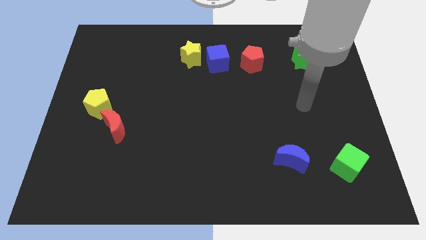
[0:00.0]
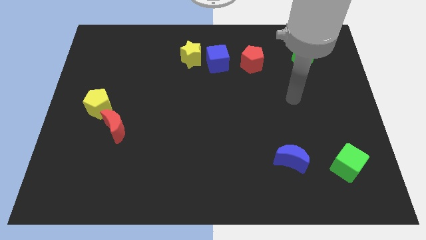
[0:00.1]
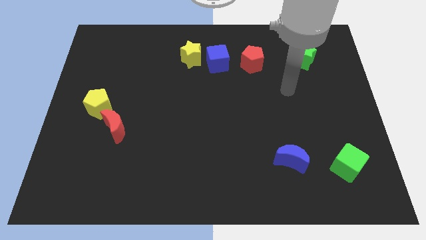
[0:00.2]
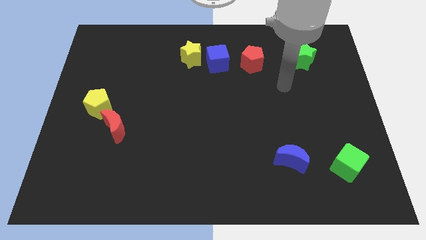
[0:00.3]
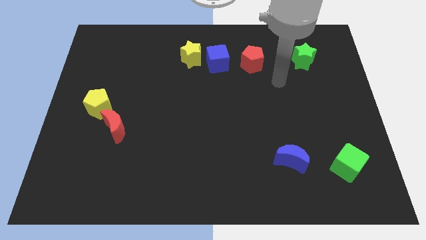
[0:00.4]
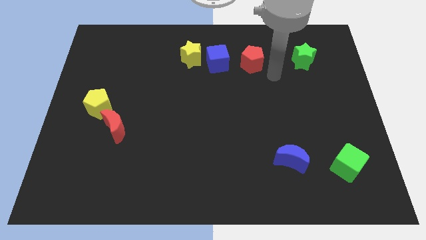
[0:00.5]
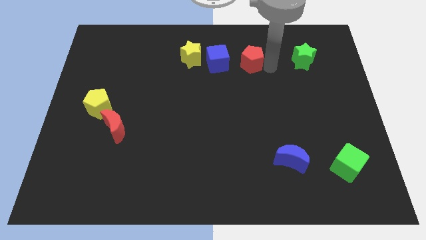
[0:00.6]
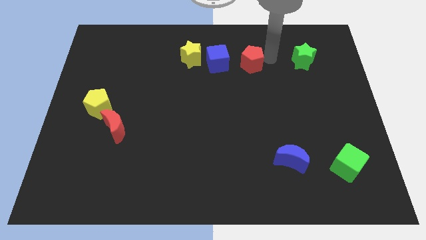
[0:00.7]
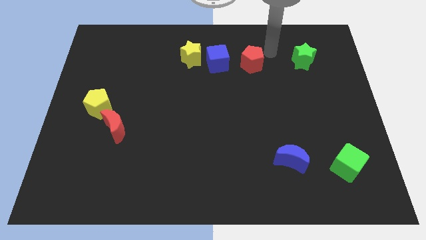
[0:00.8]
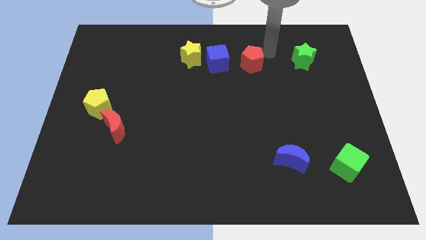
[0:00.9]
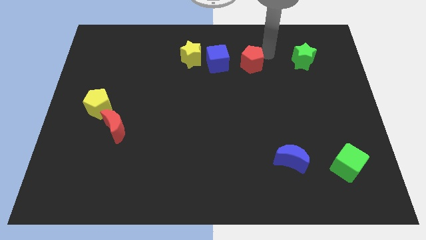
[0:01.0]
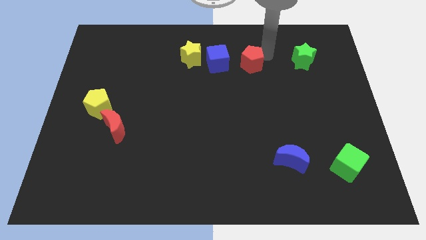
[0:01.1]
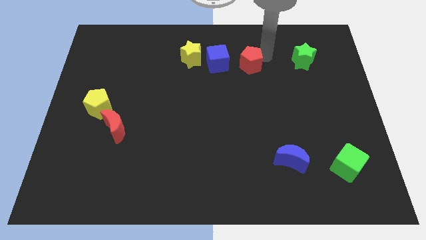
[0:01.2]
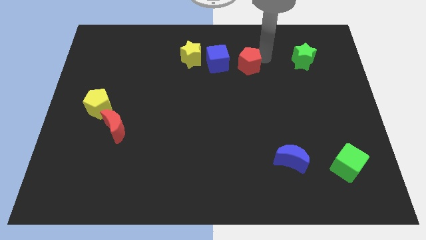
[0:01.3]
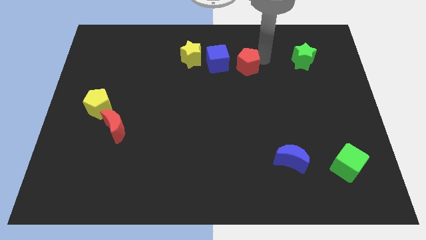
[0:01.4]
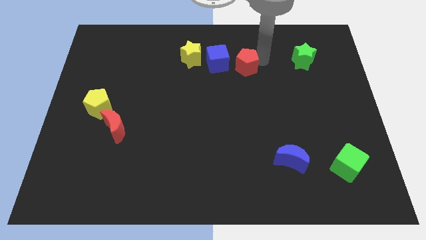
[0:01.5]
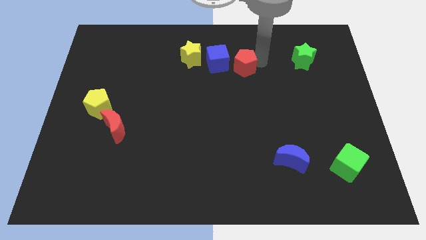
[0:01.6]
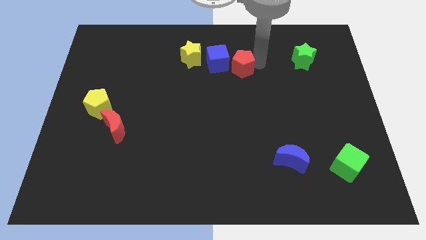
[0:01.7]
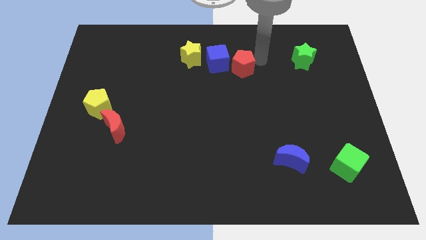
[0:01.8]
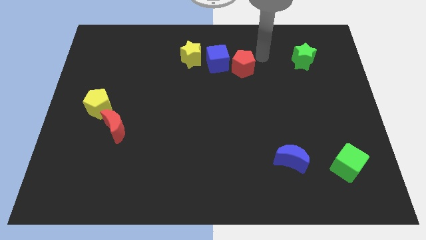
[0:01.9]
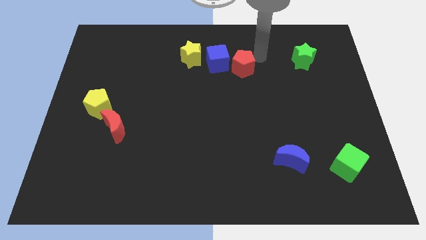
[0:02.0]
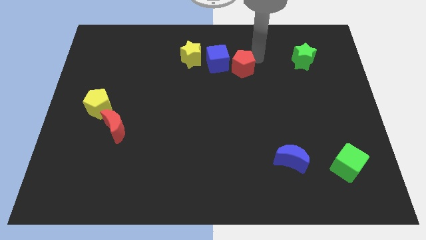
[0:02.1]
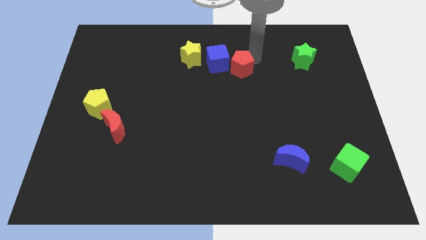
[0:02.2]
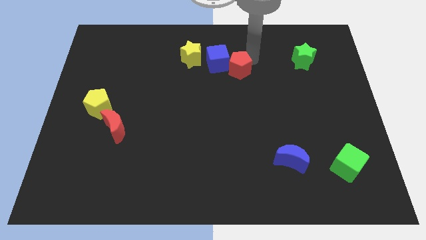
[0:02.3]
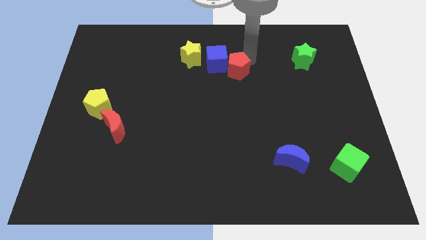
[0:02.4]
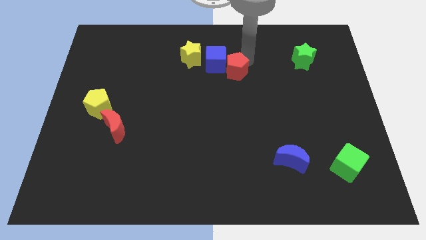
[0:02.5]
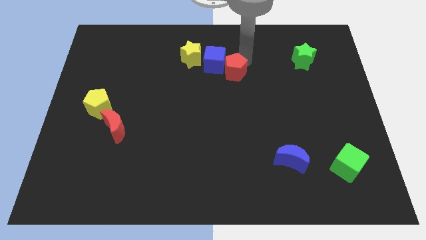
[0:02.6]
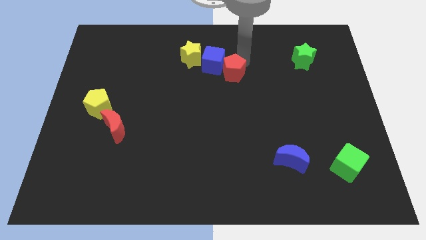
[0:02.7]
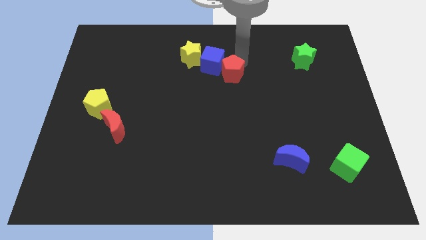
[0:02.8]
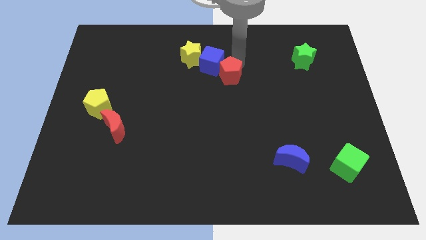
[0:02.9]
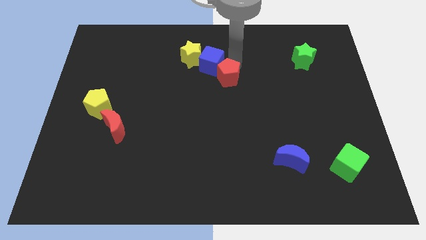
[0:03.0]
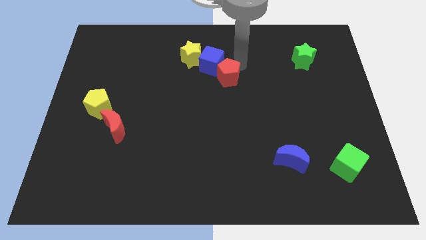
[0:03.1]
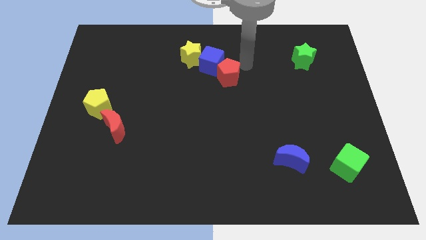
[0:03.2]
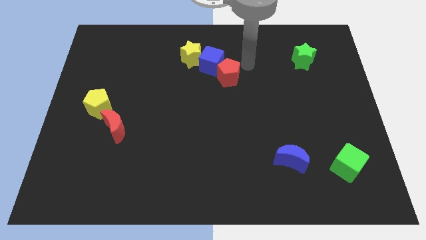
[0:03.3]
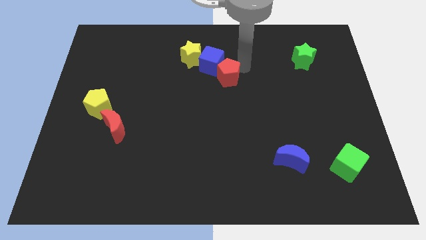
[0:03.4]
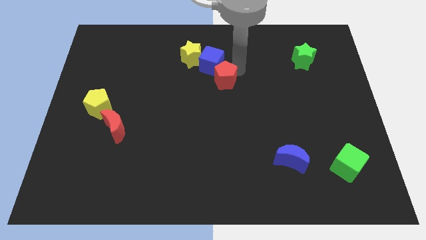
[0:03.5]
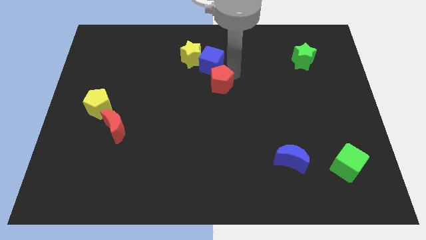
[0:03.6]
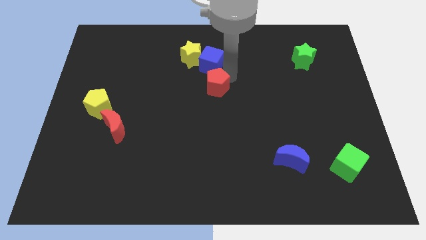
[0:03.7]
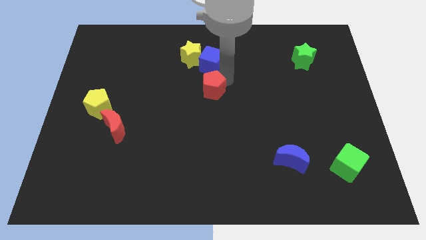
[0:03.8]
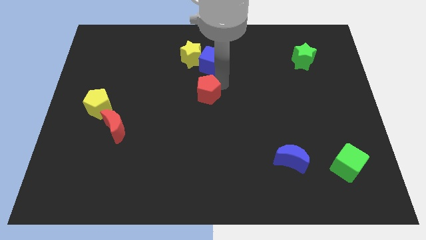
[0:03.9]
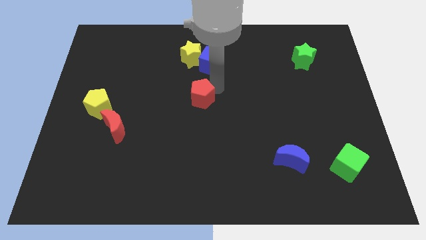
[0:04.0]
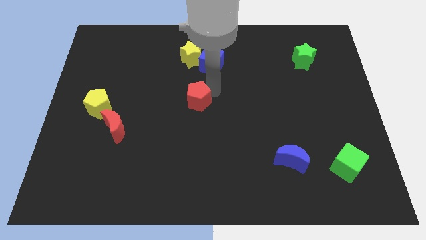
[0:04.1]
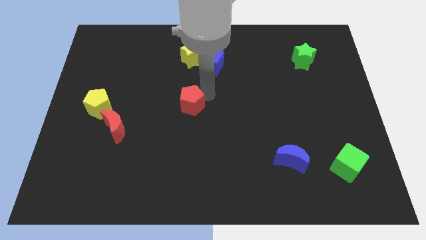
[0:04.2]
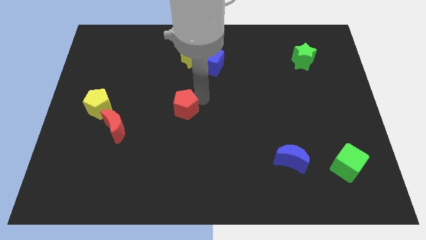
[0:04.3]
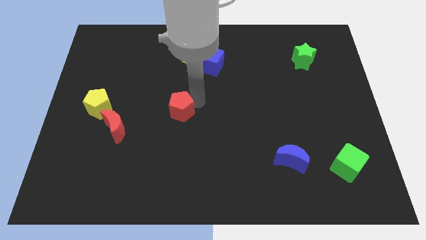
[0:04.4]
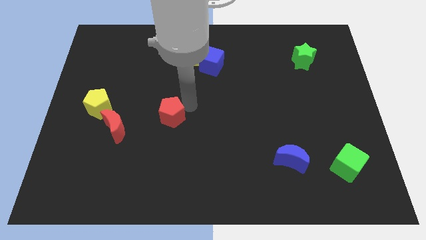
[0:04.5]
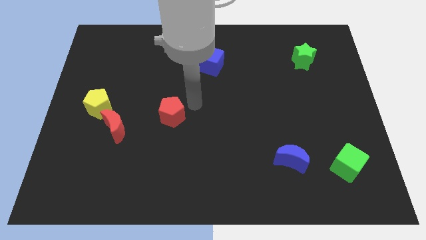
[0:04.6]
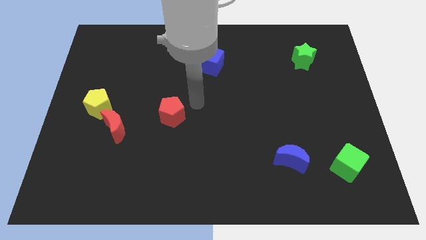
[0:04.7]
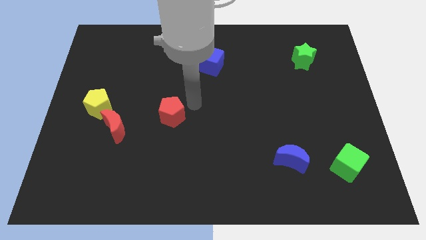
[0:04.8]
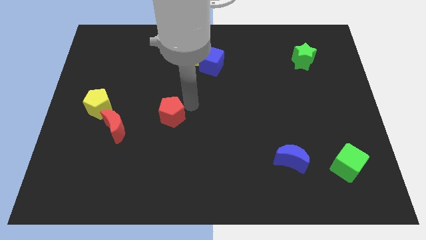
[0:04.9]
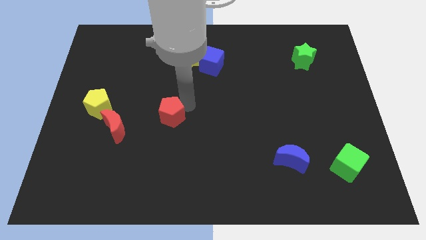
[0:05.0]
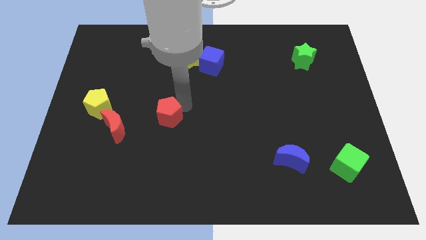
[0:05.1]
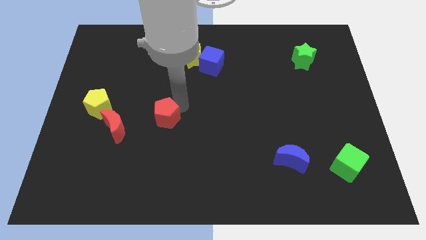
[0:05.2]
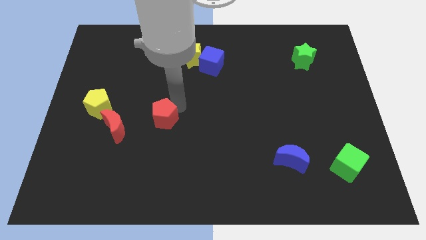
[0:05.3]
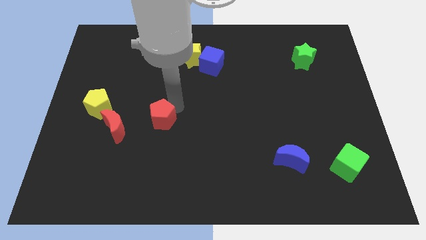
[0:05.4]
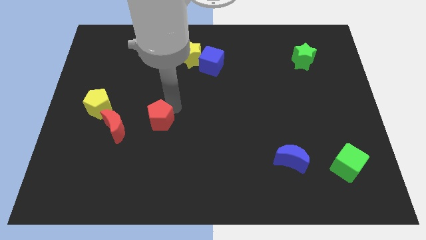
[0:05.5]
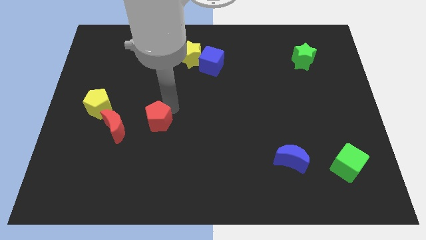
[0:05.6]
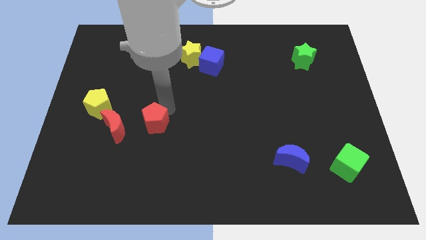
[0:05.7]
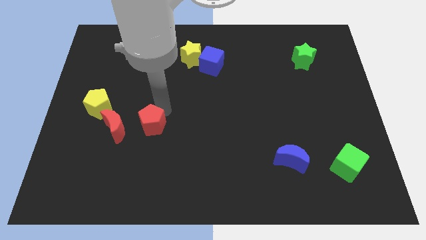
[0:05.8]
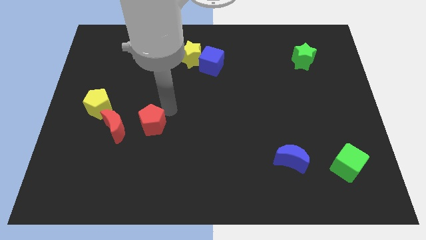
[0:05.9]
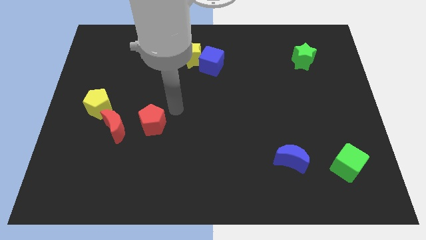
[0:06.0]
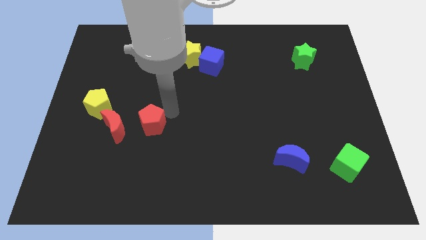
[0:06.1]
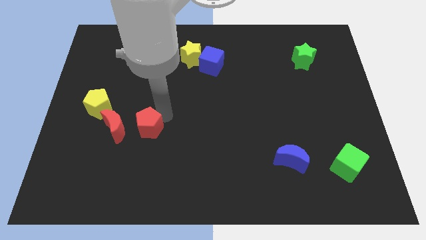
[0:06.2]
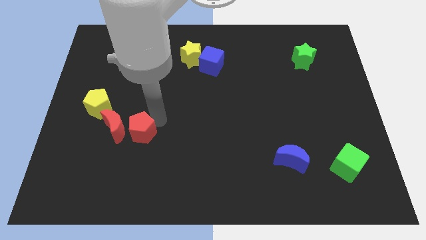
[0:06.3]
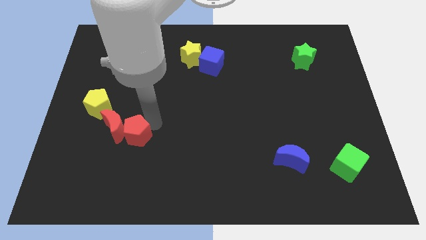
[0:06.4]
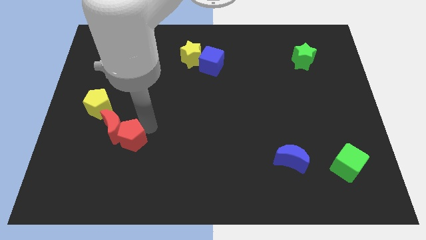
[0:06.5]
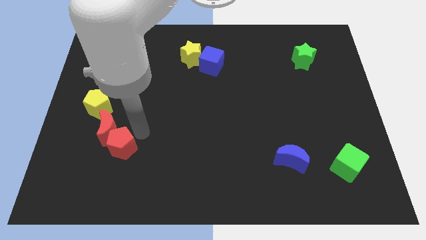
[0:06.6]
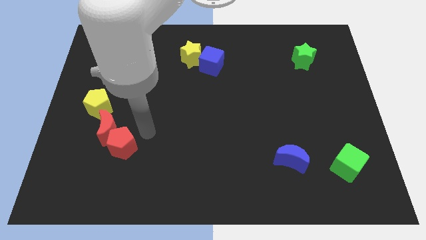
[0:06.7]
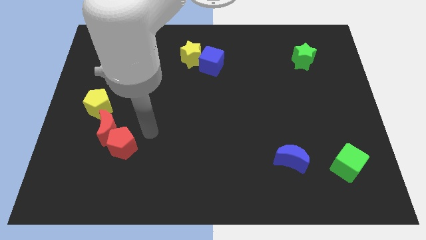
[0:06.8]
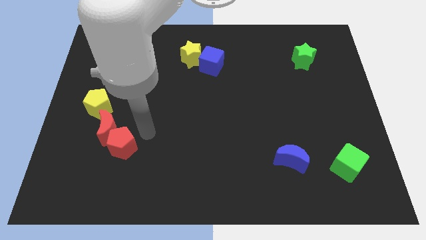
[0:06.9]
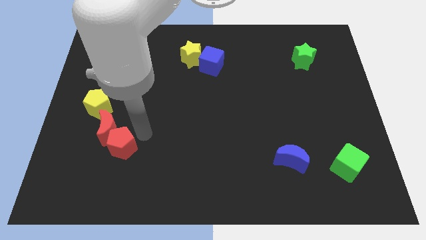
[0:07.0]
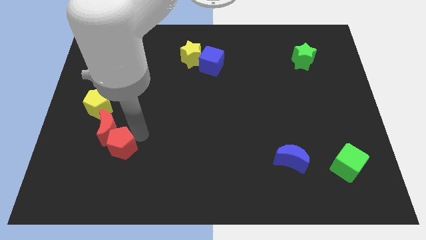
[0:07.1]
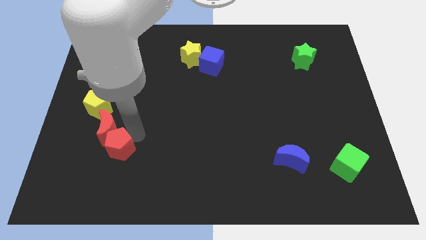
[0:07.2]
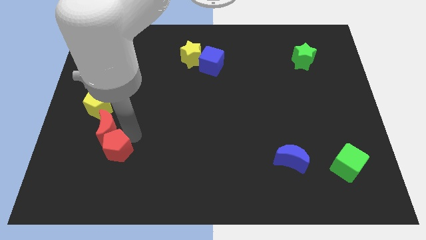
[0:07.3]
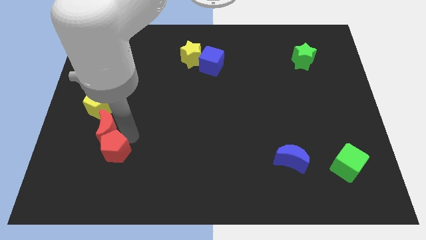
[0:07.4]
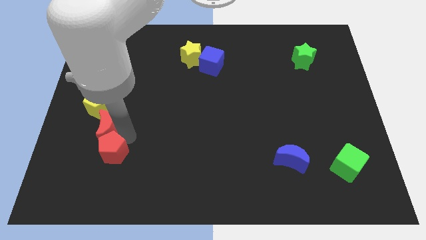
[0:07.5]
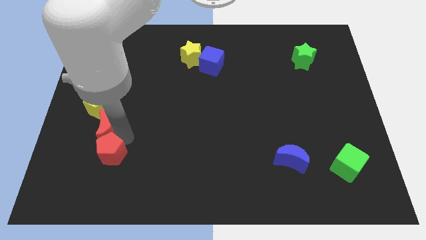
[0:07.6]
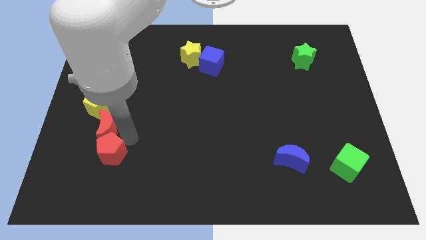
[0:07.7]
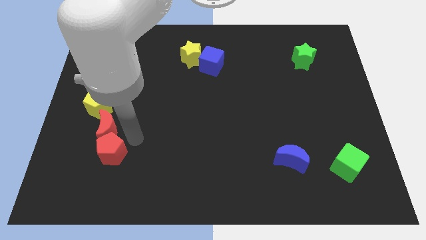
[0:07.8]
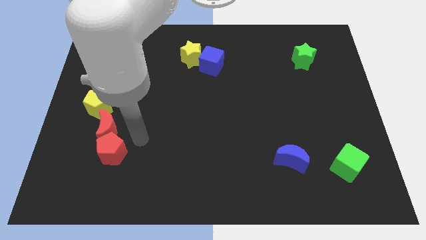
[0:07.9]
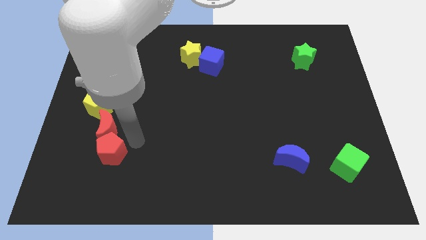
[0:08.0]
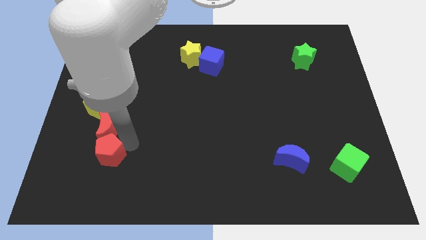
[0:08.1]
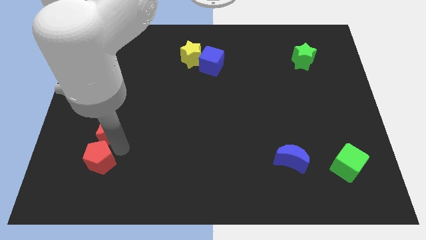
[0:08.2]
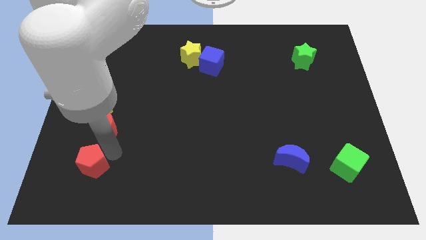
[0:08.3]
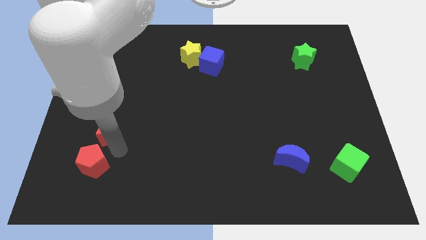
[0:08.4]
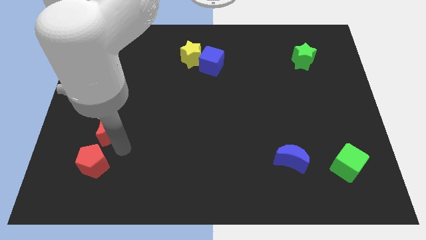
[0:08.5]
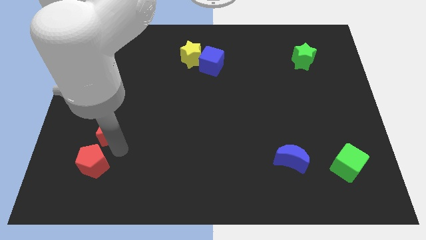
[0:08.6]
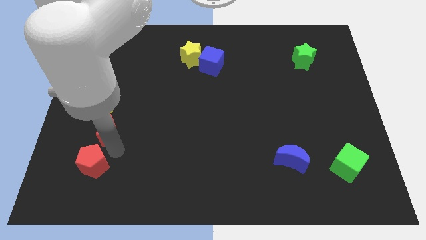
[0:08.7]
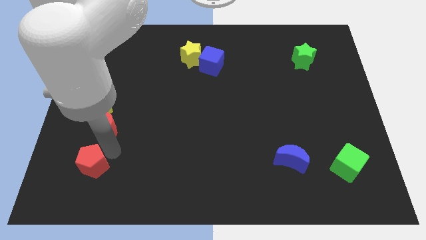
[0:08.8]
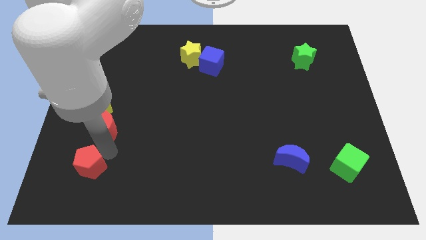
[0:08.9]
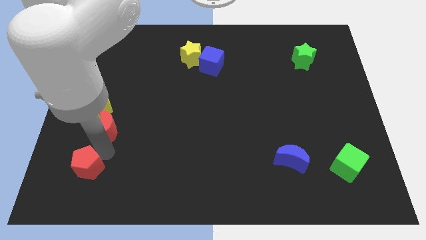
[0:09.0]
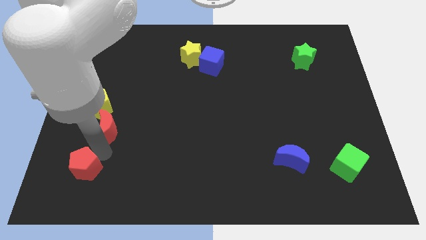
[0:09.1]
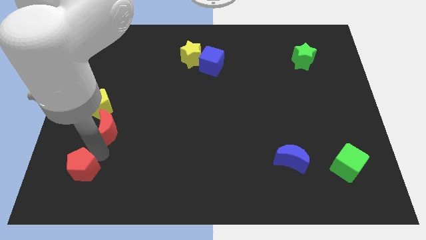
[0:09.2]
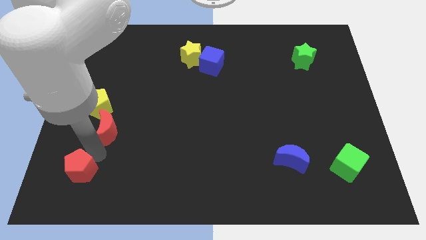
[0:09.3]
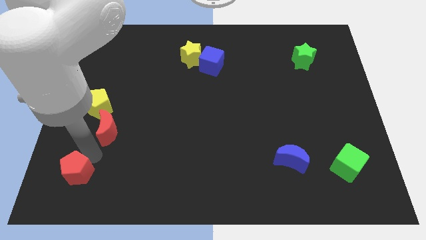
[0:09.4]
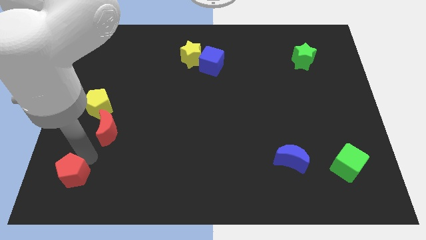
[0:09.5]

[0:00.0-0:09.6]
put the red pentagon to the bottom left corner
